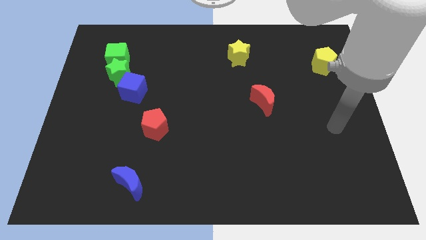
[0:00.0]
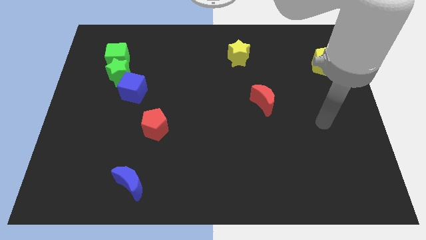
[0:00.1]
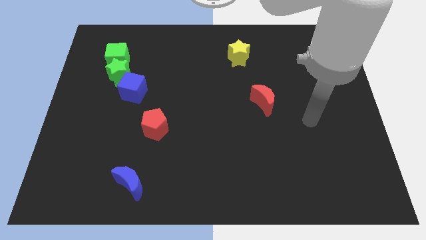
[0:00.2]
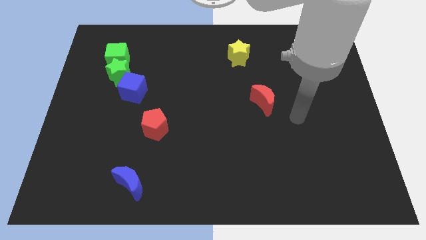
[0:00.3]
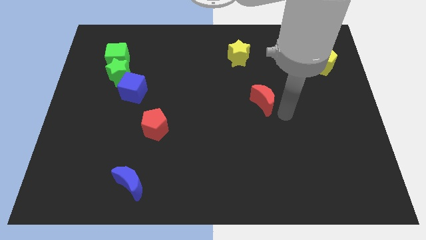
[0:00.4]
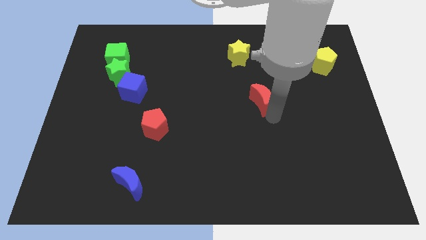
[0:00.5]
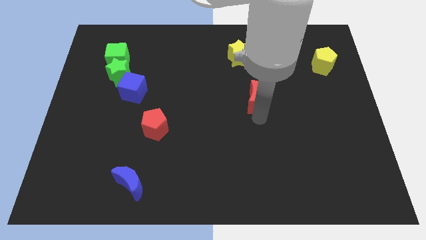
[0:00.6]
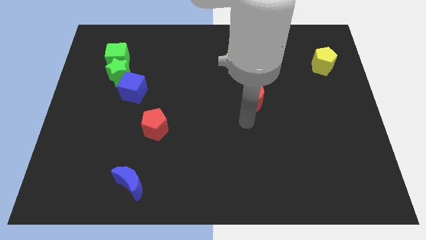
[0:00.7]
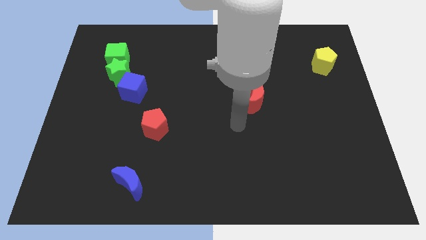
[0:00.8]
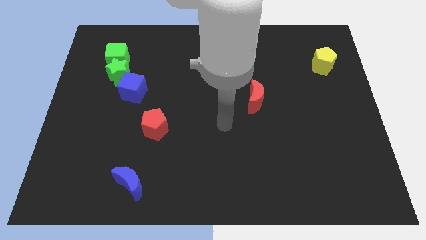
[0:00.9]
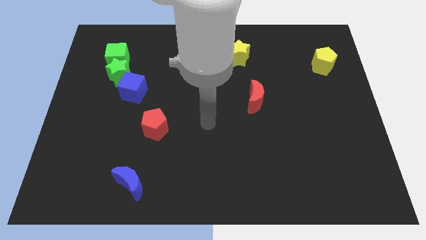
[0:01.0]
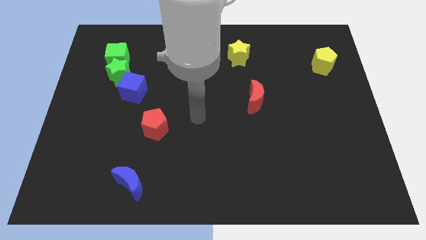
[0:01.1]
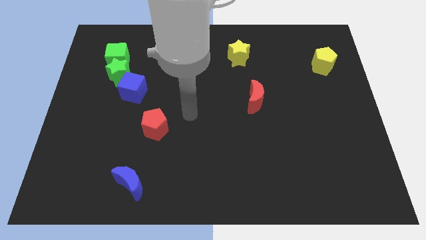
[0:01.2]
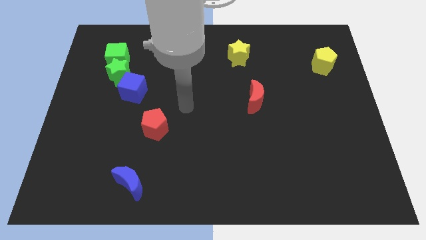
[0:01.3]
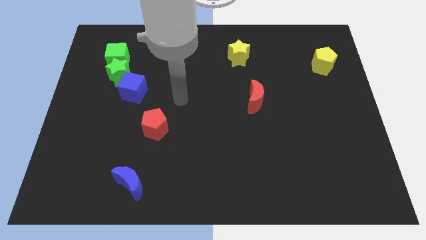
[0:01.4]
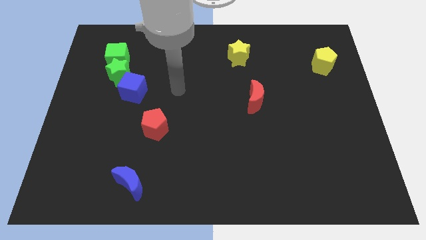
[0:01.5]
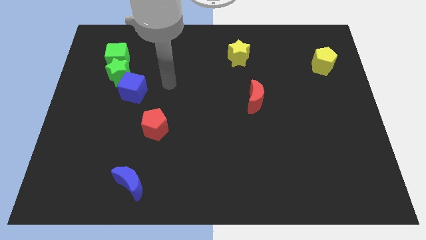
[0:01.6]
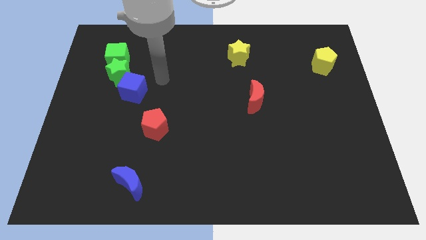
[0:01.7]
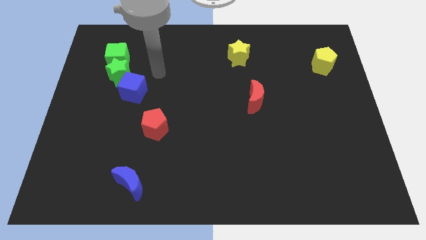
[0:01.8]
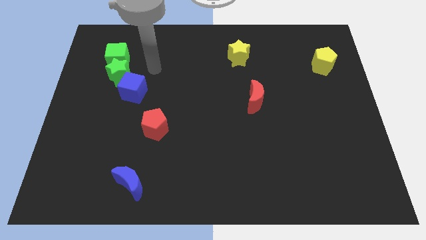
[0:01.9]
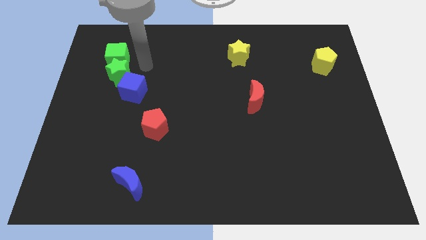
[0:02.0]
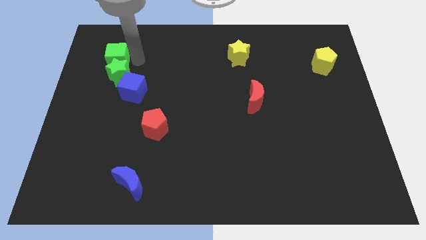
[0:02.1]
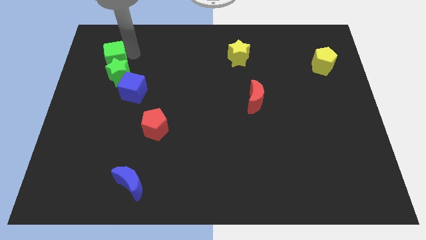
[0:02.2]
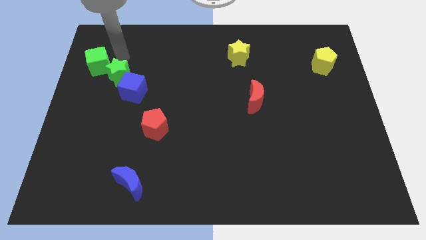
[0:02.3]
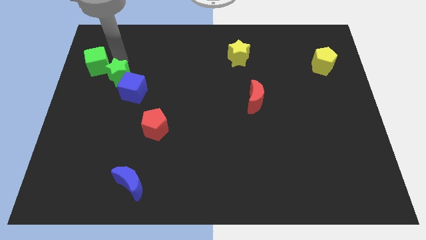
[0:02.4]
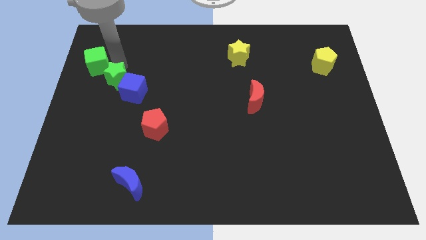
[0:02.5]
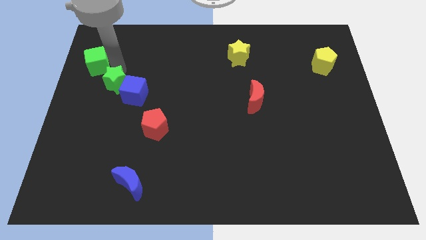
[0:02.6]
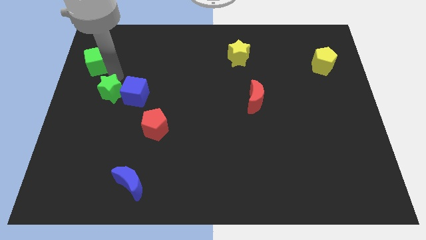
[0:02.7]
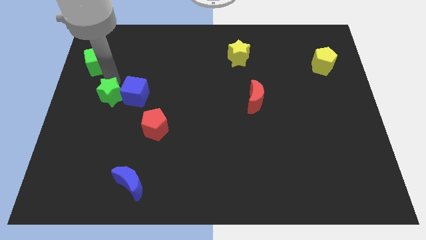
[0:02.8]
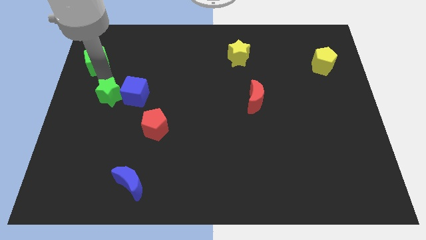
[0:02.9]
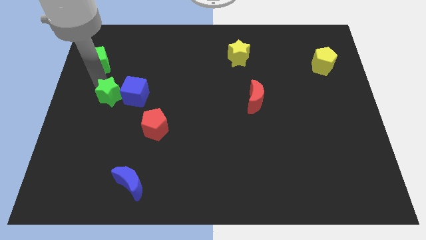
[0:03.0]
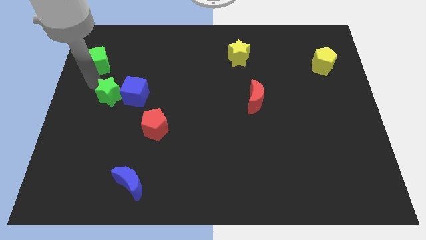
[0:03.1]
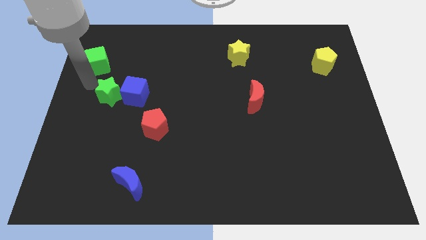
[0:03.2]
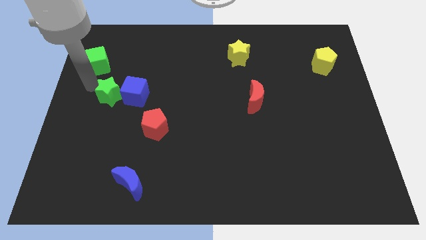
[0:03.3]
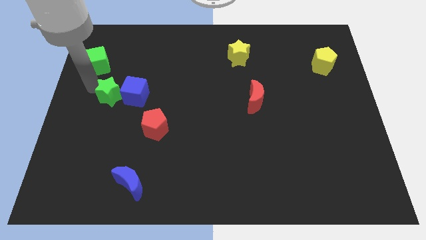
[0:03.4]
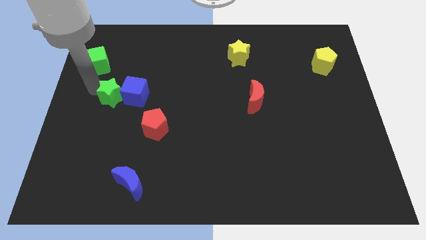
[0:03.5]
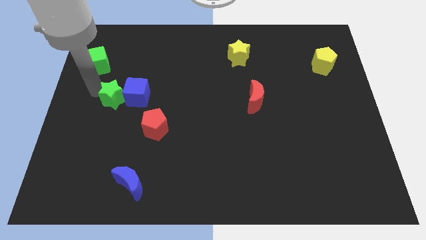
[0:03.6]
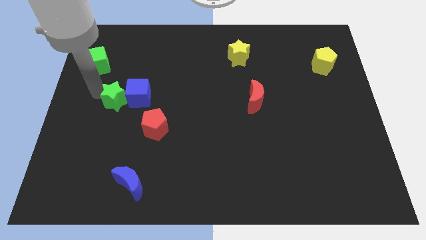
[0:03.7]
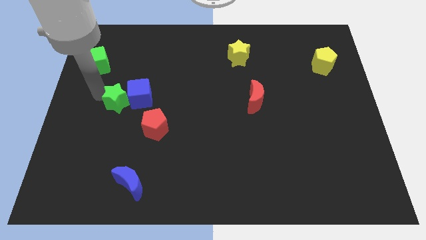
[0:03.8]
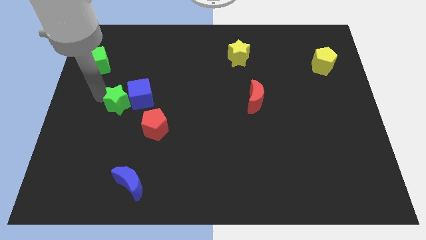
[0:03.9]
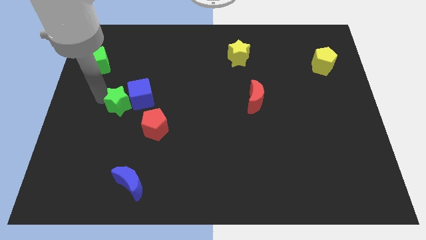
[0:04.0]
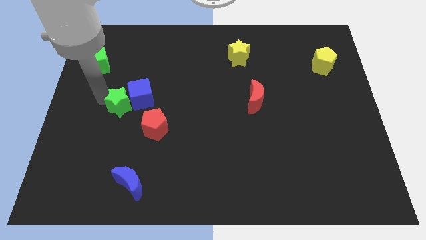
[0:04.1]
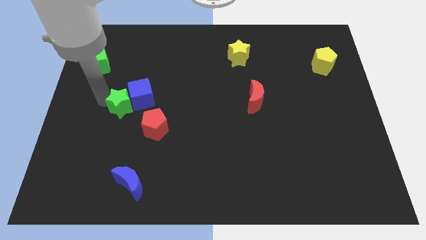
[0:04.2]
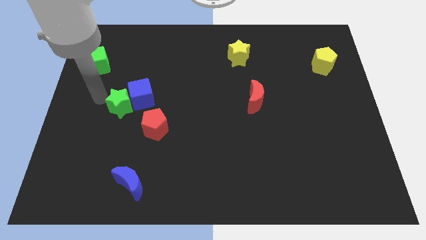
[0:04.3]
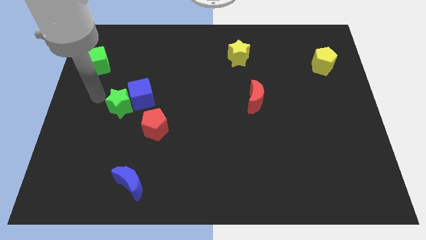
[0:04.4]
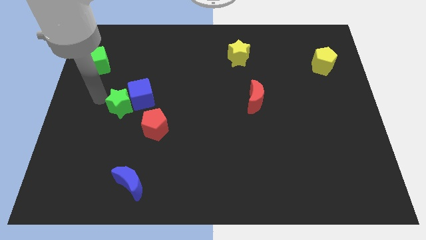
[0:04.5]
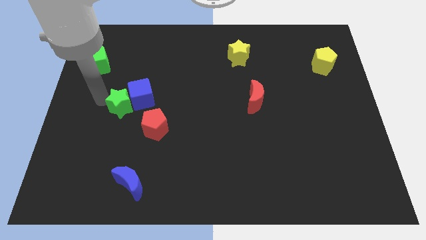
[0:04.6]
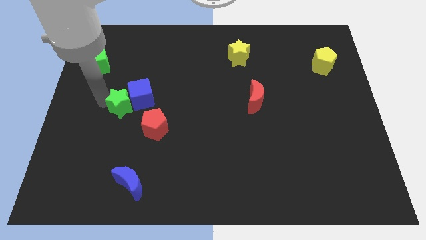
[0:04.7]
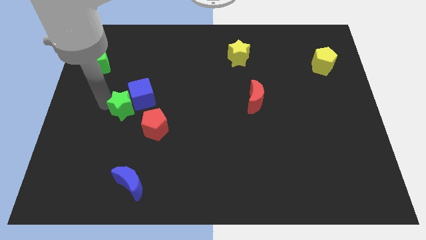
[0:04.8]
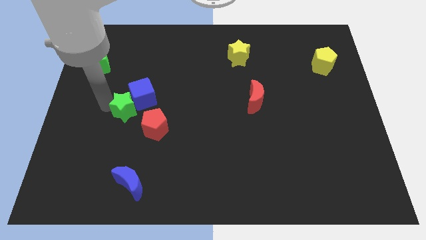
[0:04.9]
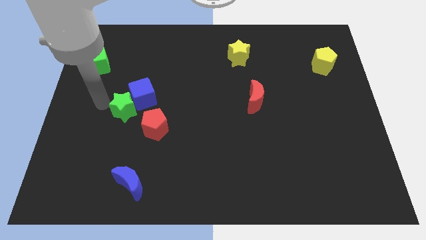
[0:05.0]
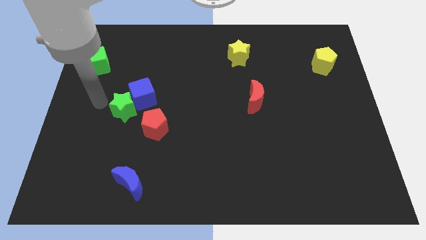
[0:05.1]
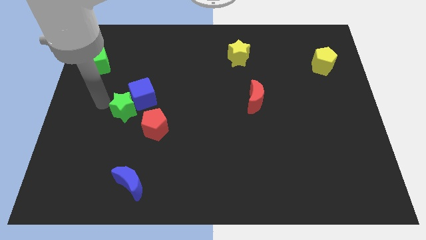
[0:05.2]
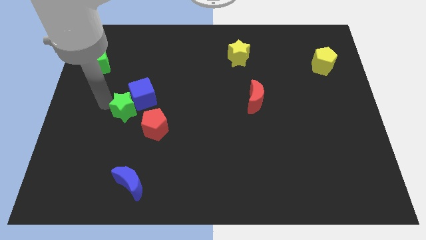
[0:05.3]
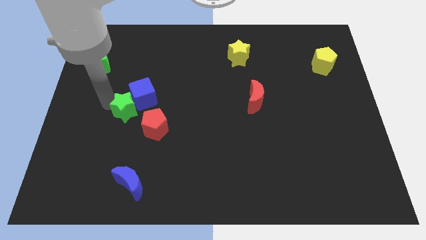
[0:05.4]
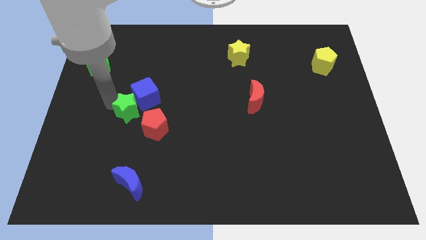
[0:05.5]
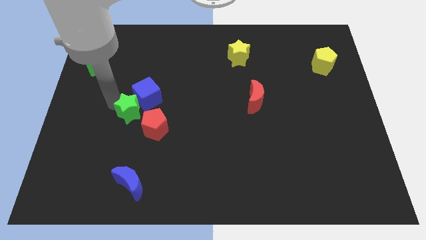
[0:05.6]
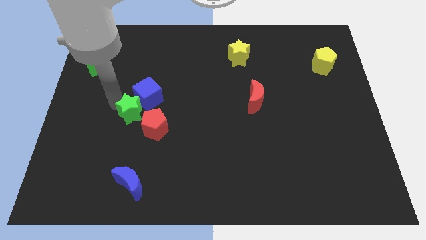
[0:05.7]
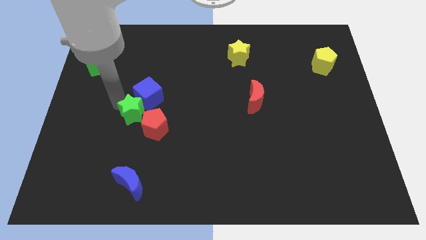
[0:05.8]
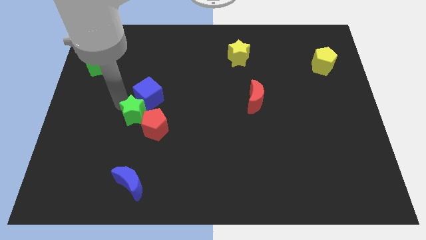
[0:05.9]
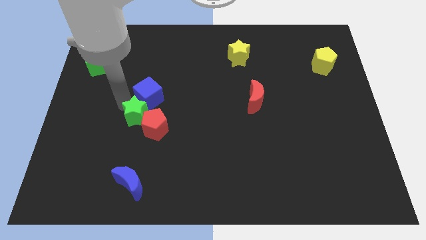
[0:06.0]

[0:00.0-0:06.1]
slide the green star towards the red pentagon
